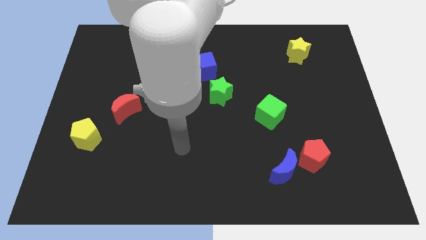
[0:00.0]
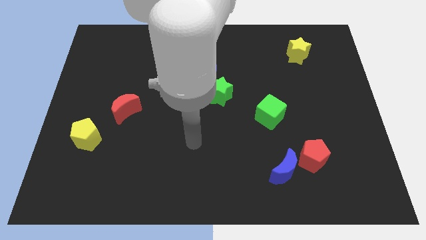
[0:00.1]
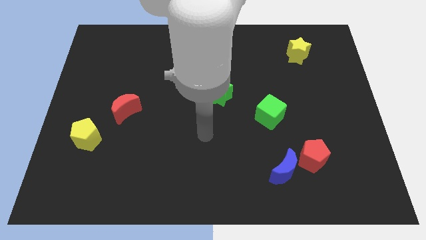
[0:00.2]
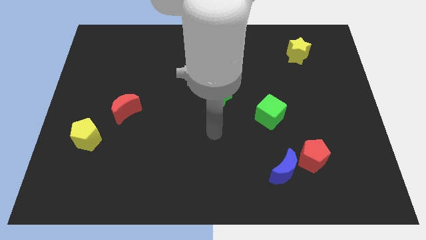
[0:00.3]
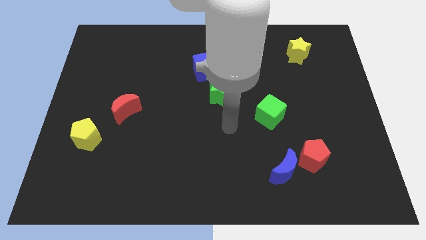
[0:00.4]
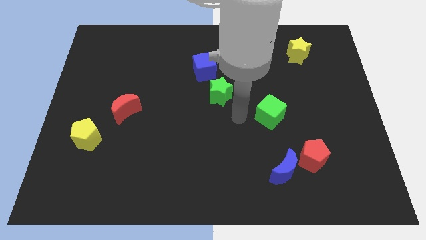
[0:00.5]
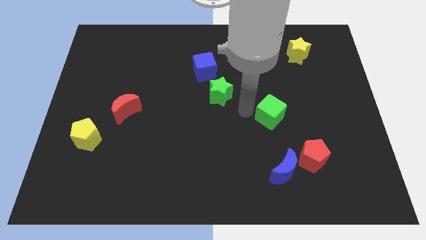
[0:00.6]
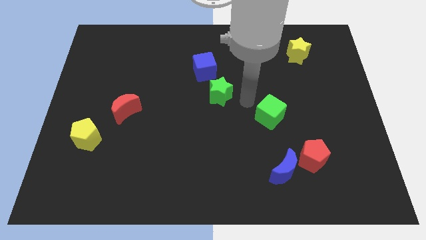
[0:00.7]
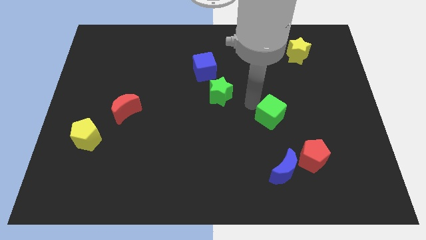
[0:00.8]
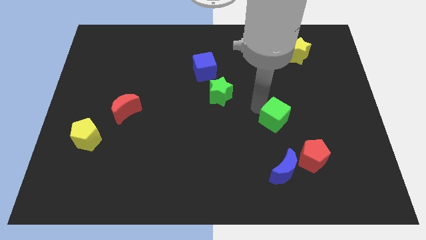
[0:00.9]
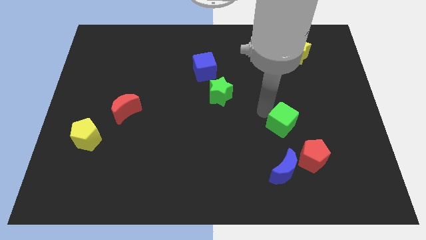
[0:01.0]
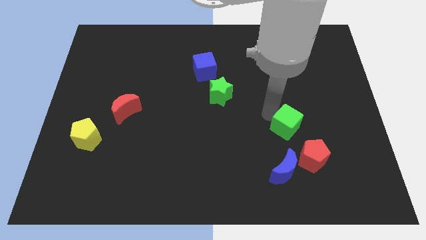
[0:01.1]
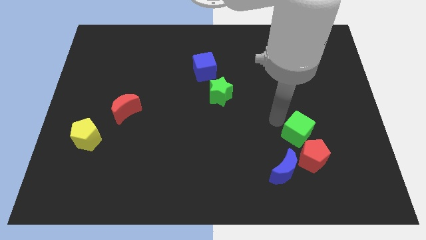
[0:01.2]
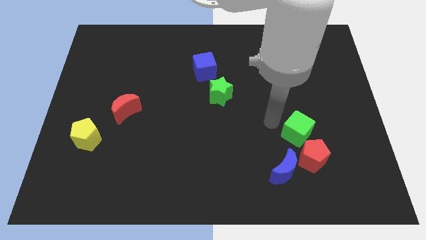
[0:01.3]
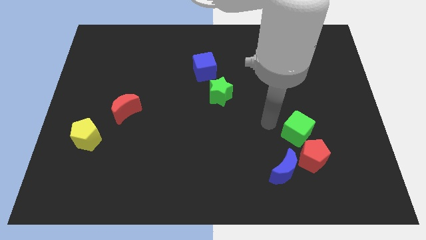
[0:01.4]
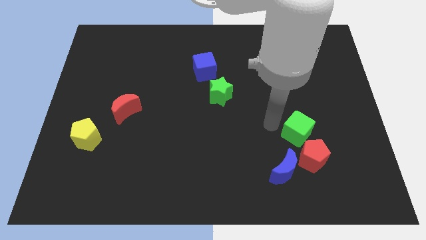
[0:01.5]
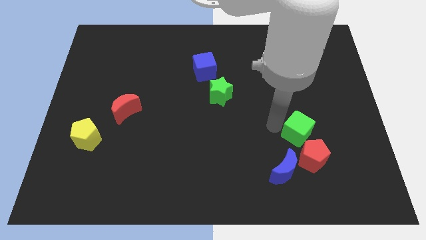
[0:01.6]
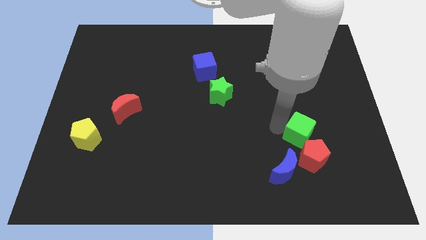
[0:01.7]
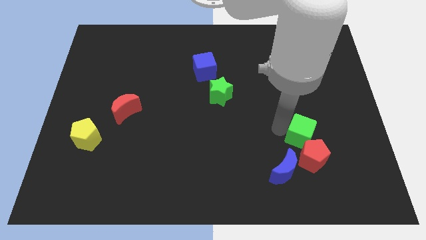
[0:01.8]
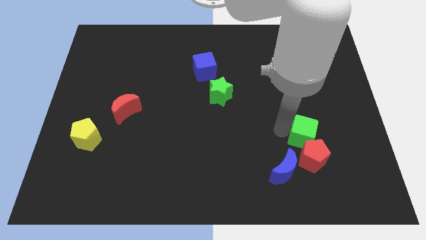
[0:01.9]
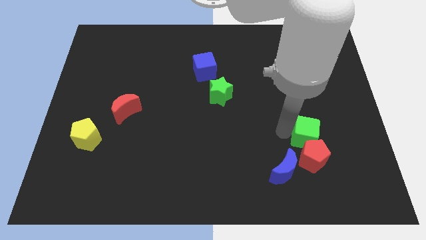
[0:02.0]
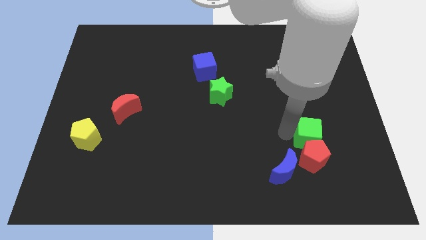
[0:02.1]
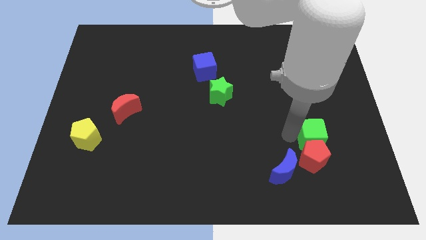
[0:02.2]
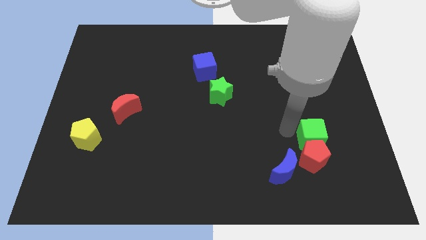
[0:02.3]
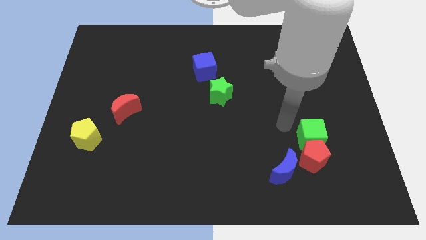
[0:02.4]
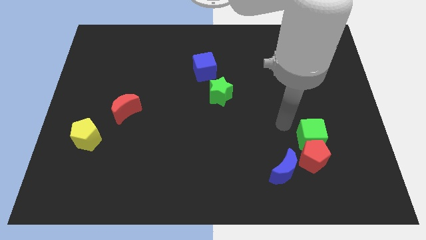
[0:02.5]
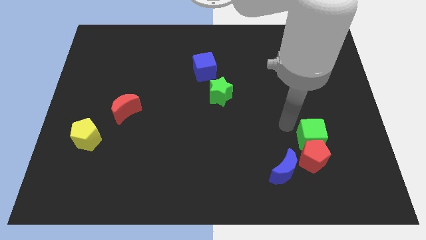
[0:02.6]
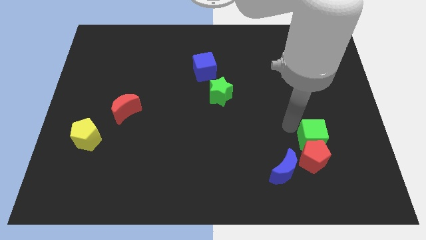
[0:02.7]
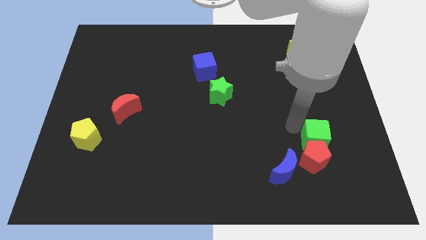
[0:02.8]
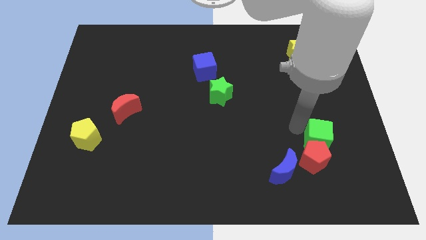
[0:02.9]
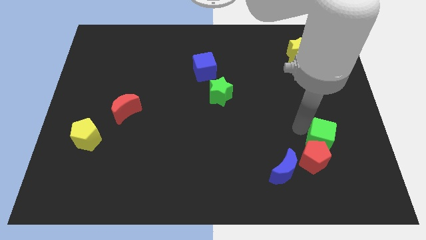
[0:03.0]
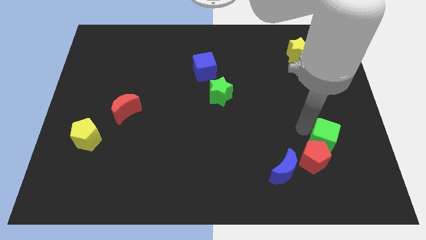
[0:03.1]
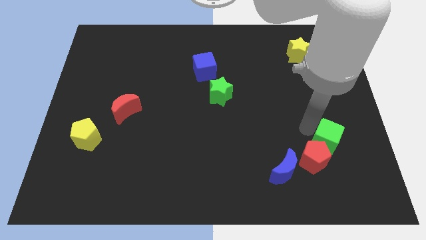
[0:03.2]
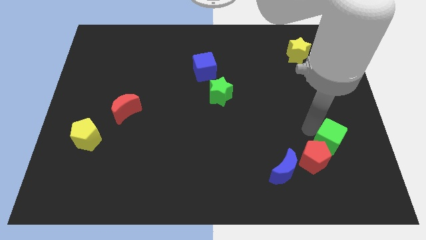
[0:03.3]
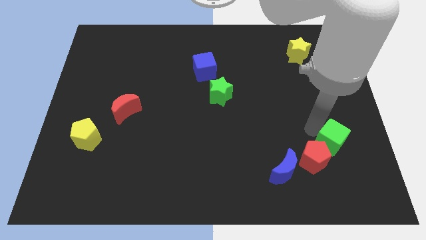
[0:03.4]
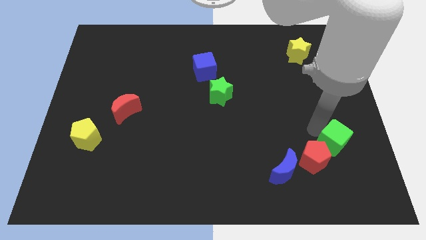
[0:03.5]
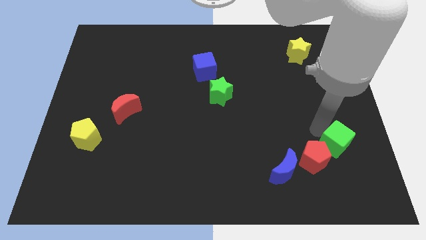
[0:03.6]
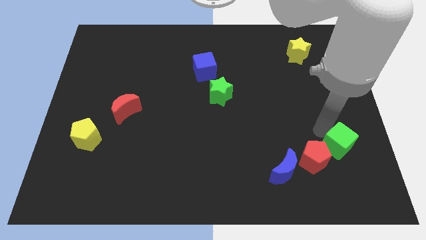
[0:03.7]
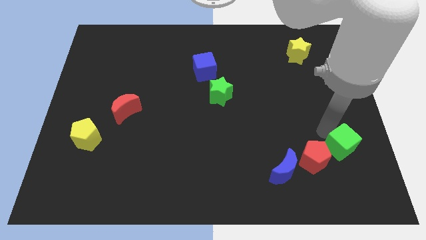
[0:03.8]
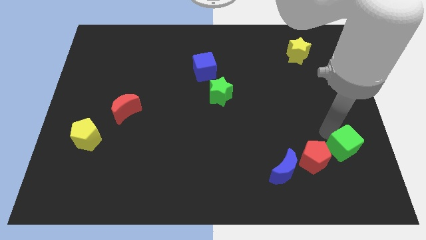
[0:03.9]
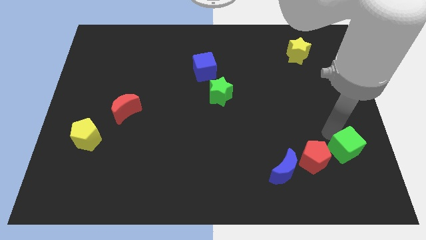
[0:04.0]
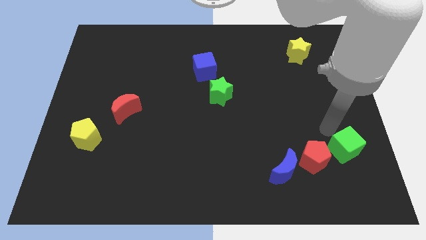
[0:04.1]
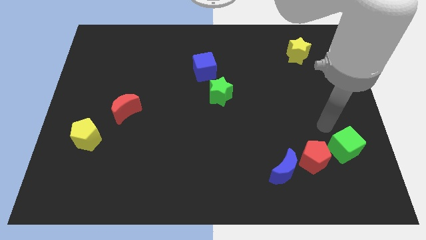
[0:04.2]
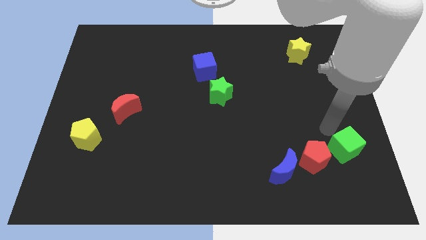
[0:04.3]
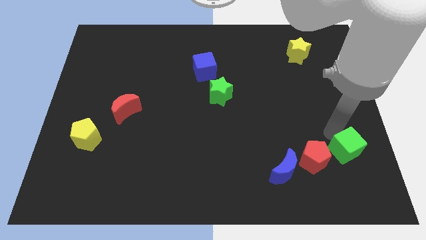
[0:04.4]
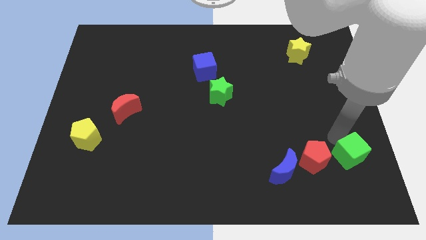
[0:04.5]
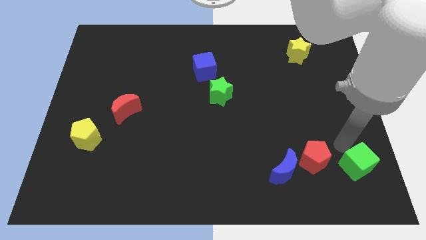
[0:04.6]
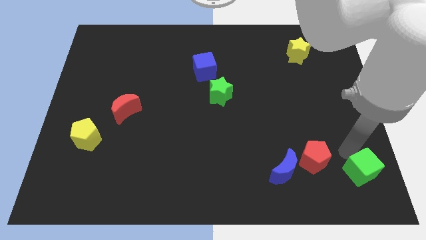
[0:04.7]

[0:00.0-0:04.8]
slide the green cube to the bottom right

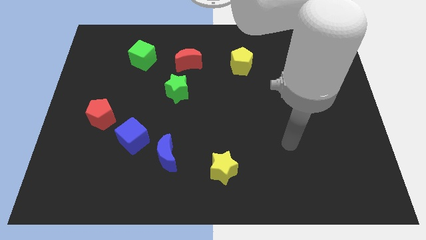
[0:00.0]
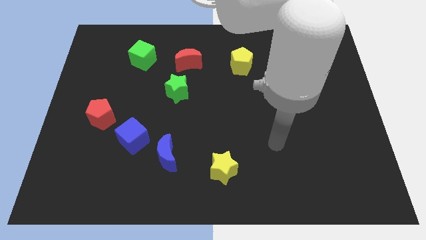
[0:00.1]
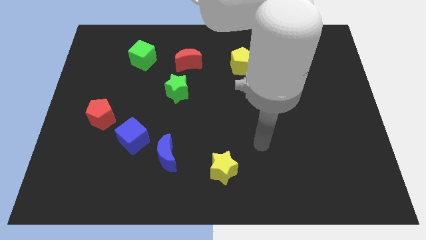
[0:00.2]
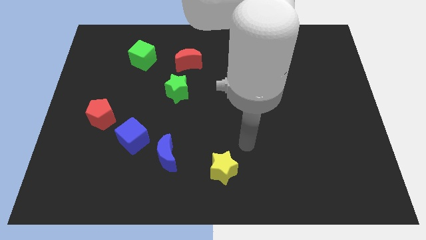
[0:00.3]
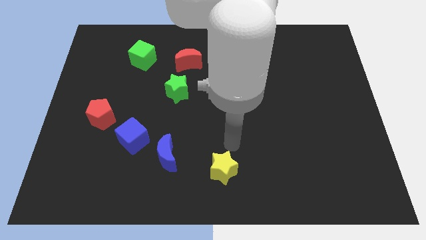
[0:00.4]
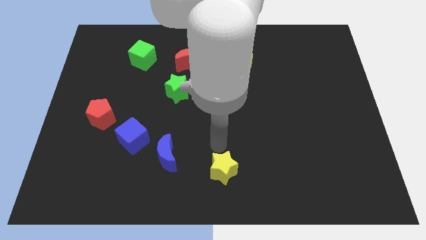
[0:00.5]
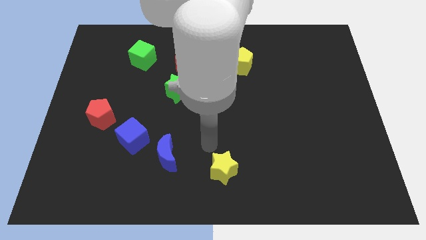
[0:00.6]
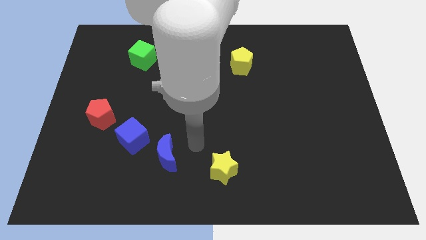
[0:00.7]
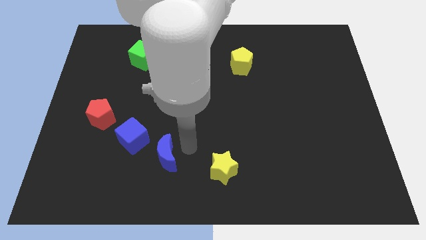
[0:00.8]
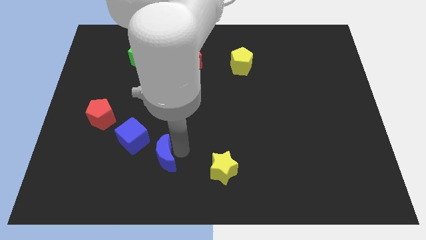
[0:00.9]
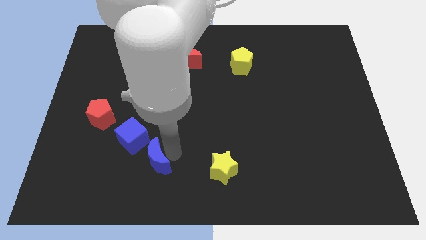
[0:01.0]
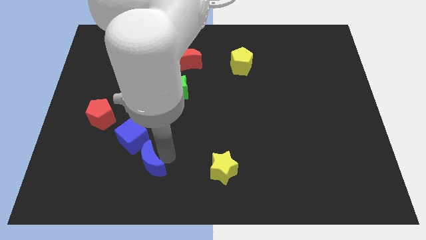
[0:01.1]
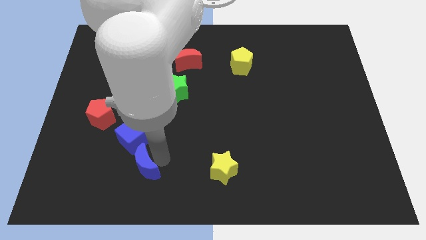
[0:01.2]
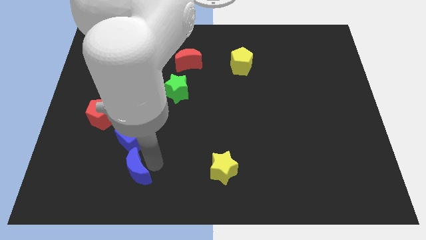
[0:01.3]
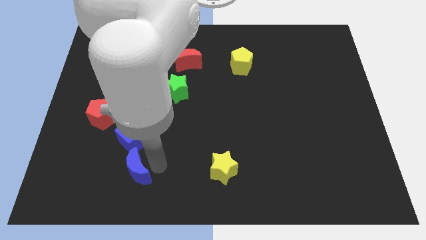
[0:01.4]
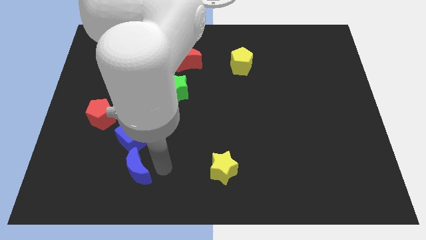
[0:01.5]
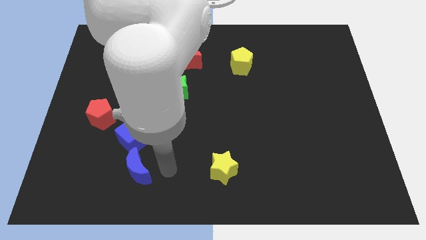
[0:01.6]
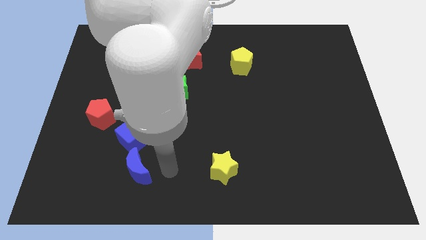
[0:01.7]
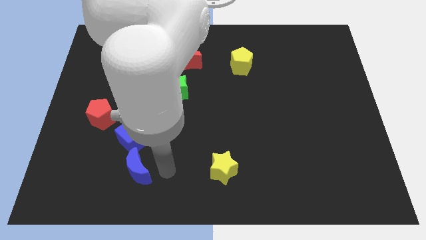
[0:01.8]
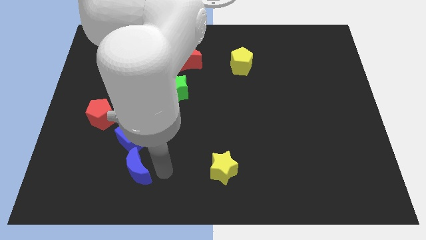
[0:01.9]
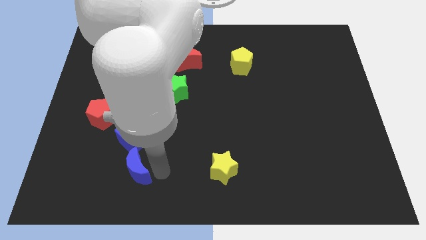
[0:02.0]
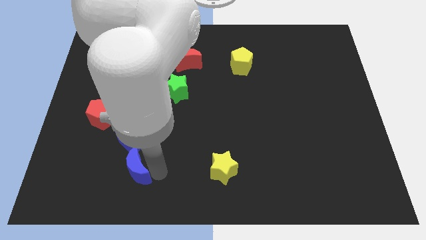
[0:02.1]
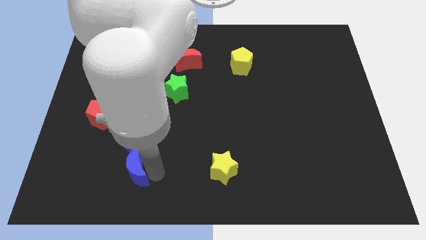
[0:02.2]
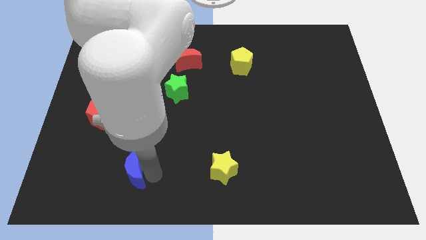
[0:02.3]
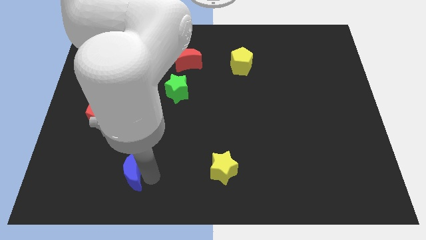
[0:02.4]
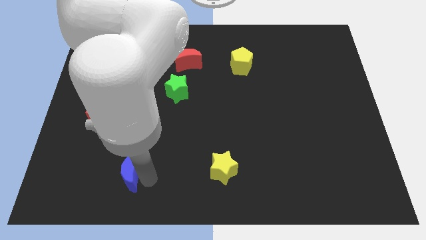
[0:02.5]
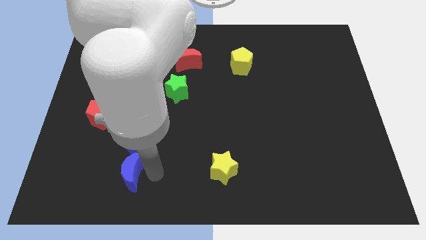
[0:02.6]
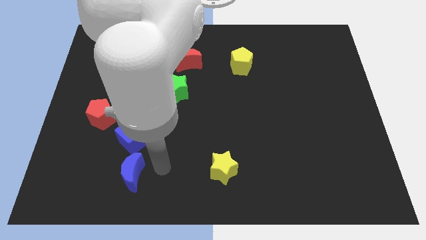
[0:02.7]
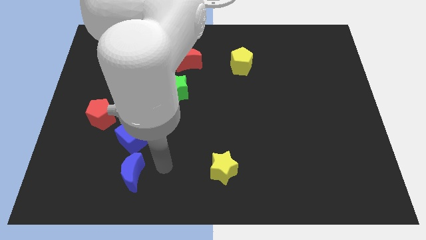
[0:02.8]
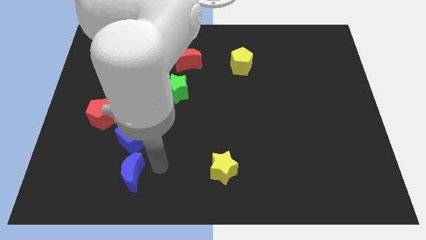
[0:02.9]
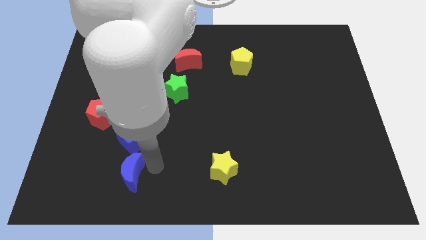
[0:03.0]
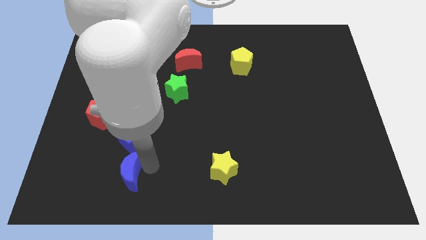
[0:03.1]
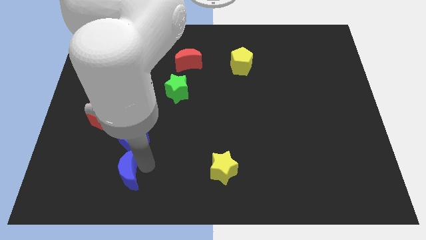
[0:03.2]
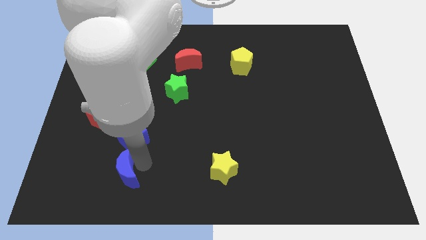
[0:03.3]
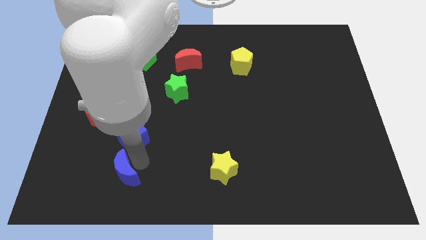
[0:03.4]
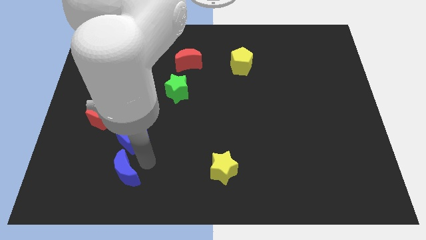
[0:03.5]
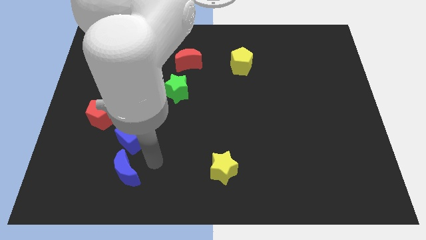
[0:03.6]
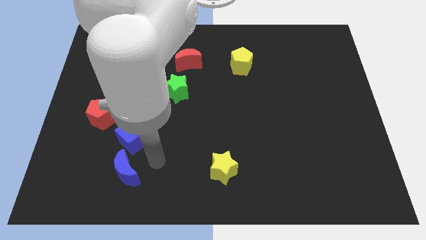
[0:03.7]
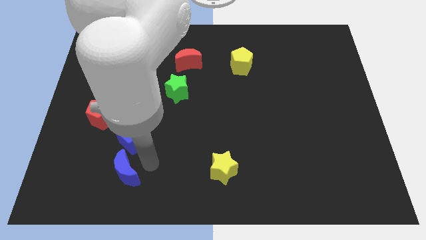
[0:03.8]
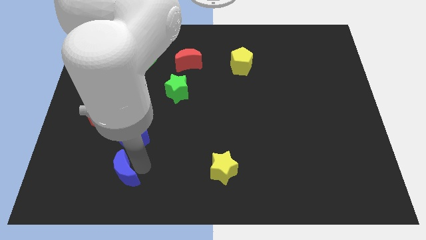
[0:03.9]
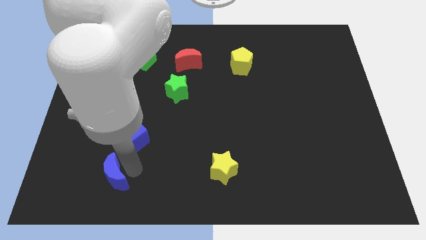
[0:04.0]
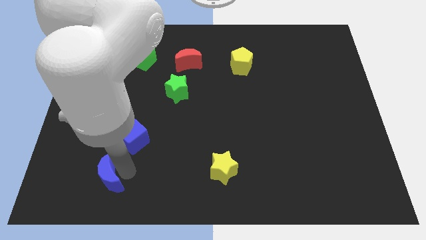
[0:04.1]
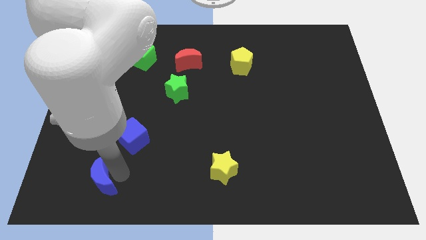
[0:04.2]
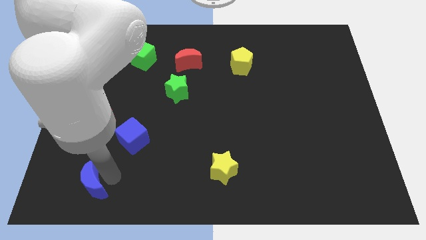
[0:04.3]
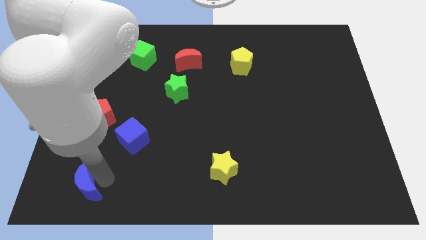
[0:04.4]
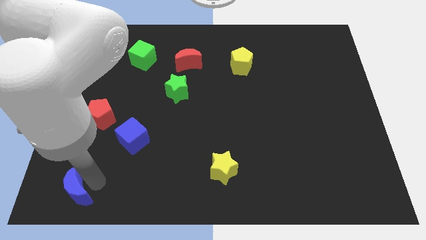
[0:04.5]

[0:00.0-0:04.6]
move the blue moon to the bottom left of the board
